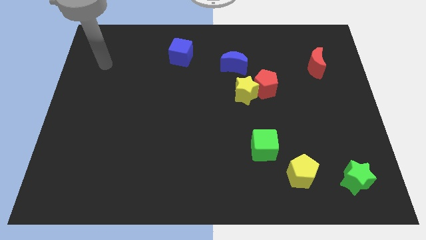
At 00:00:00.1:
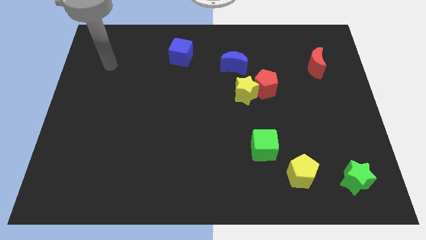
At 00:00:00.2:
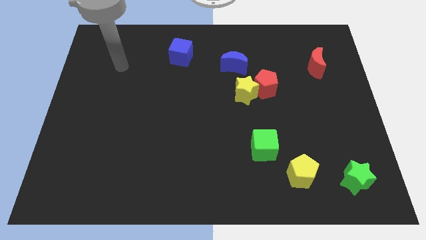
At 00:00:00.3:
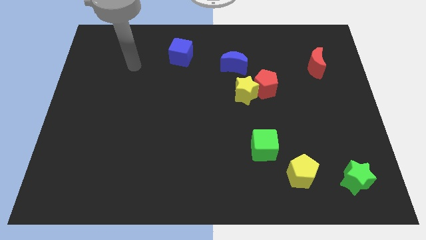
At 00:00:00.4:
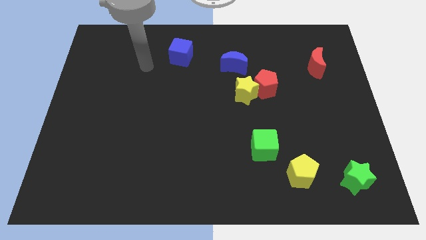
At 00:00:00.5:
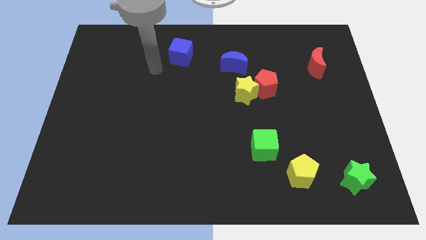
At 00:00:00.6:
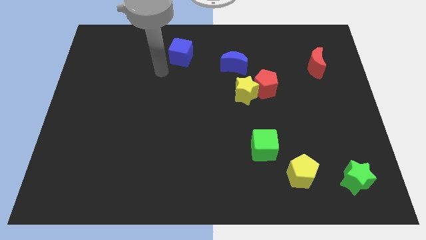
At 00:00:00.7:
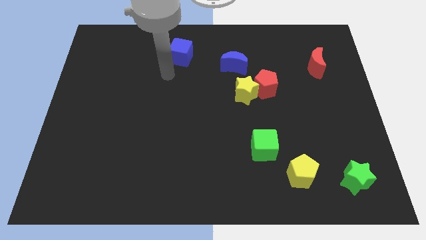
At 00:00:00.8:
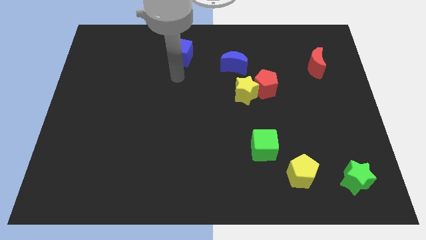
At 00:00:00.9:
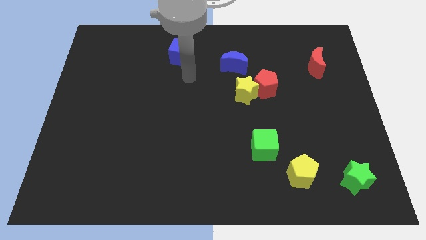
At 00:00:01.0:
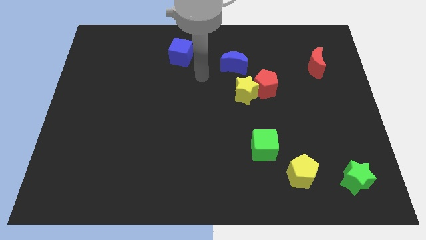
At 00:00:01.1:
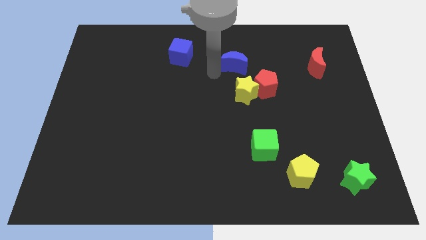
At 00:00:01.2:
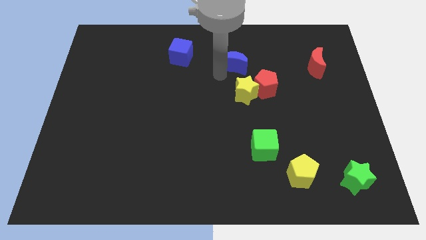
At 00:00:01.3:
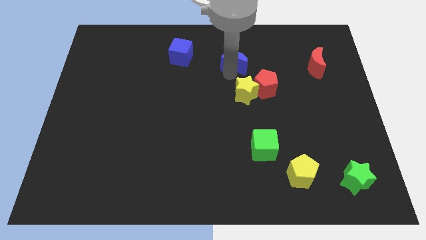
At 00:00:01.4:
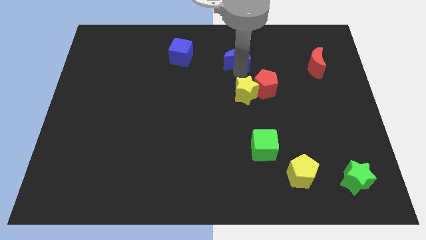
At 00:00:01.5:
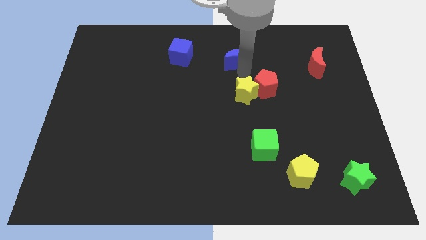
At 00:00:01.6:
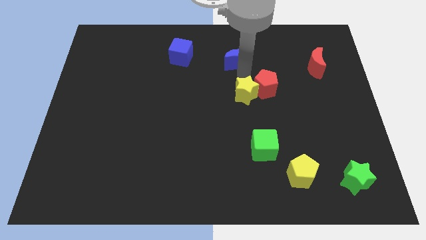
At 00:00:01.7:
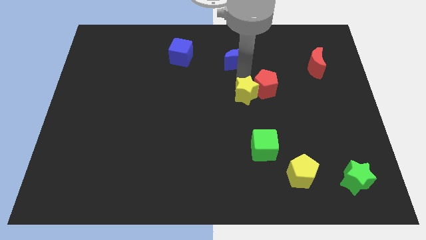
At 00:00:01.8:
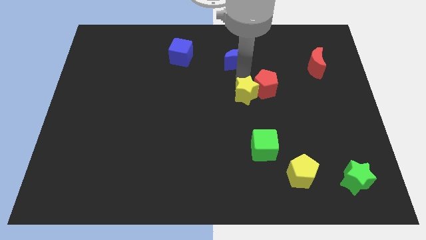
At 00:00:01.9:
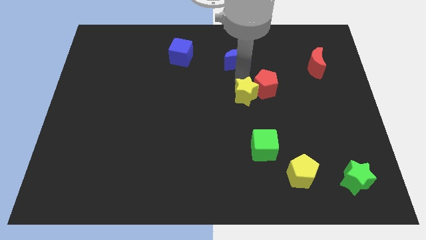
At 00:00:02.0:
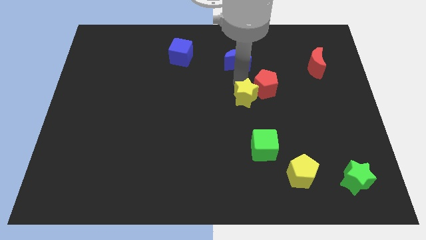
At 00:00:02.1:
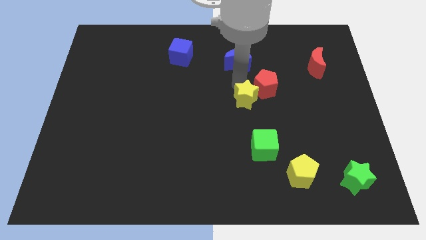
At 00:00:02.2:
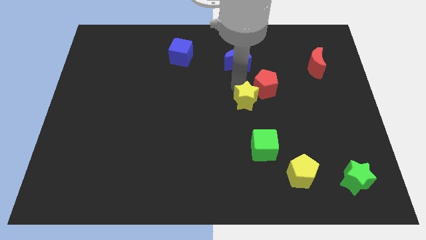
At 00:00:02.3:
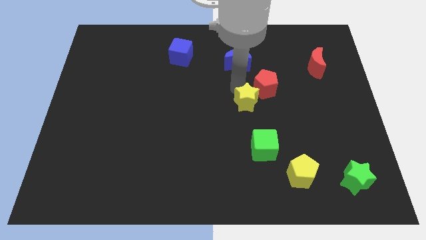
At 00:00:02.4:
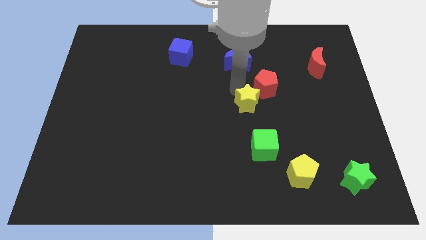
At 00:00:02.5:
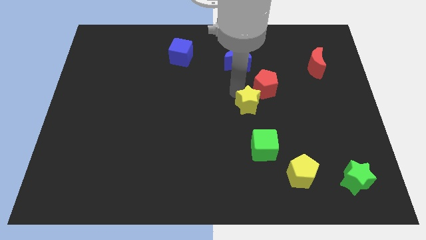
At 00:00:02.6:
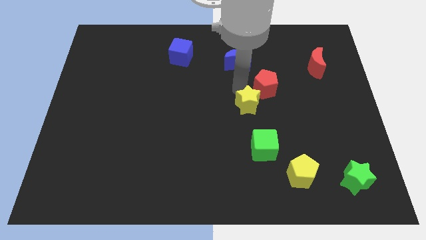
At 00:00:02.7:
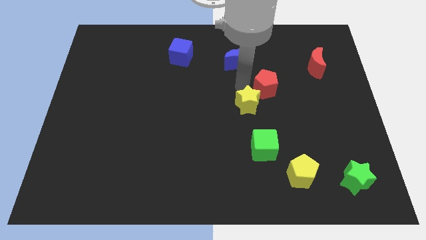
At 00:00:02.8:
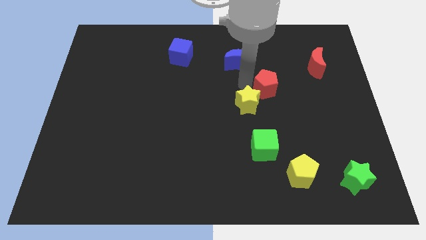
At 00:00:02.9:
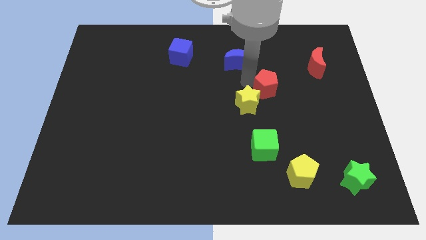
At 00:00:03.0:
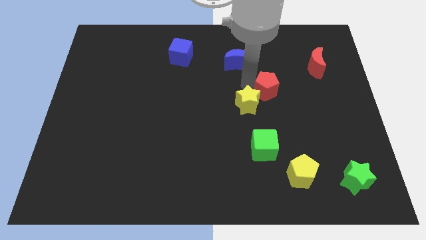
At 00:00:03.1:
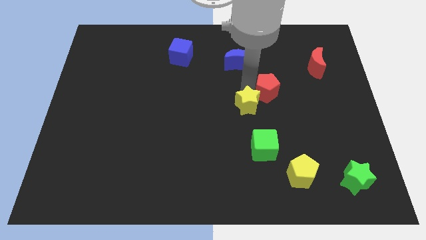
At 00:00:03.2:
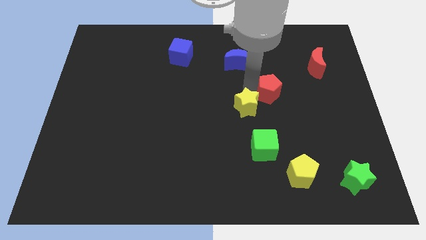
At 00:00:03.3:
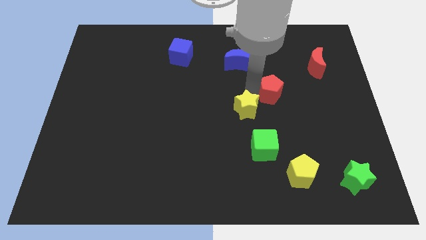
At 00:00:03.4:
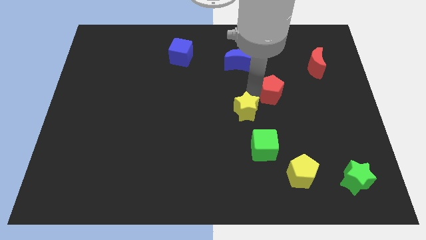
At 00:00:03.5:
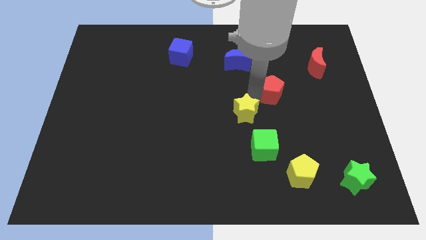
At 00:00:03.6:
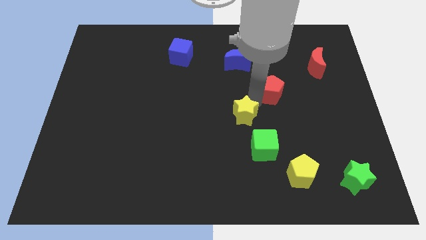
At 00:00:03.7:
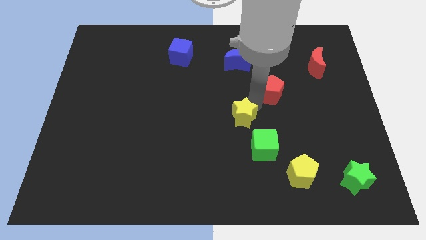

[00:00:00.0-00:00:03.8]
push the yellow star a little down

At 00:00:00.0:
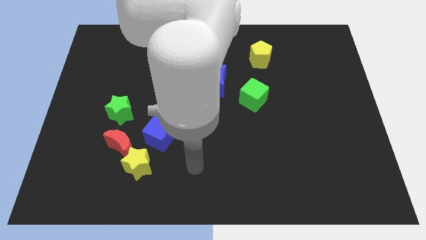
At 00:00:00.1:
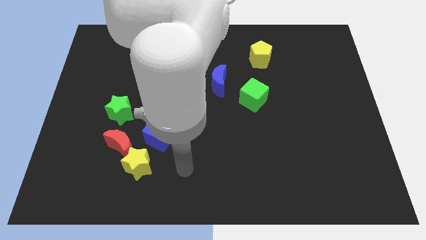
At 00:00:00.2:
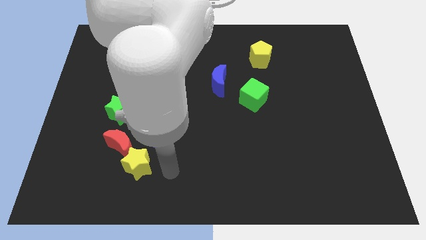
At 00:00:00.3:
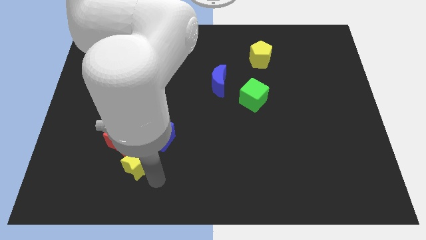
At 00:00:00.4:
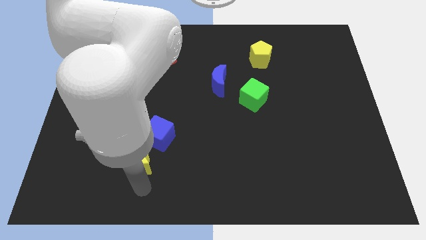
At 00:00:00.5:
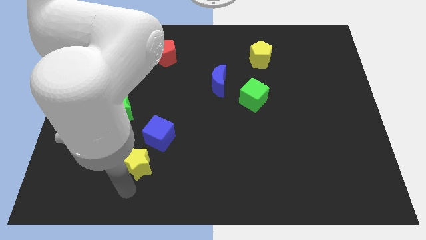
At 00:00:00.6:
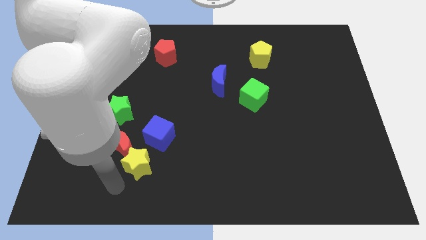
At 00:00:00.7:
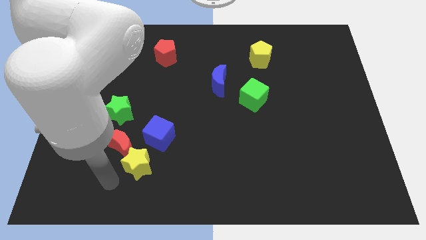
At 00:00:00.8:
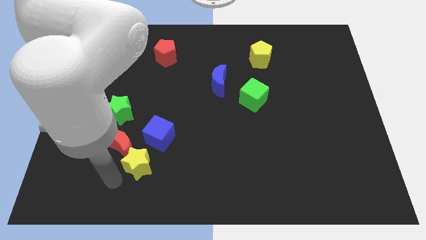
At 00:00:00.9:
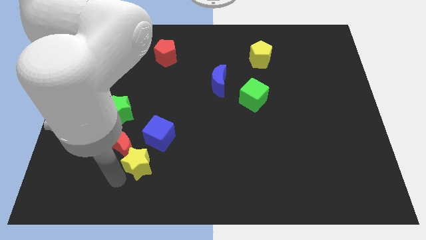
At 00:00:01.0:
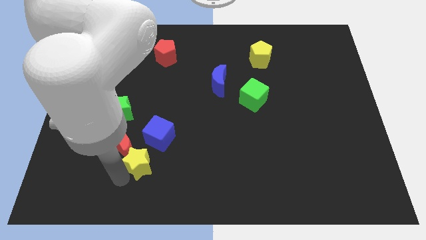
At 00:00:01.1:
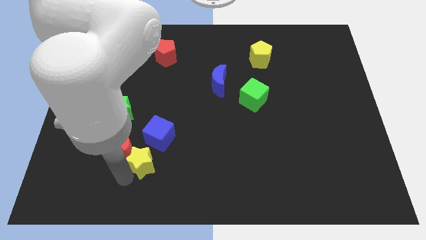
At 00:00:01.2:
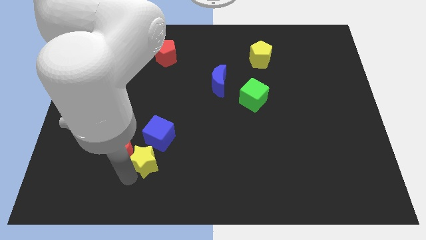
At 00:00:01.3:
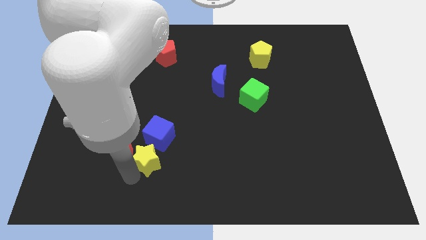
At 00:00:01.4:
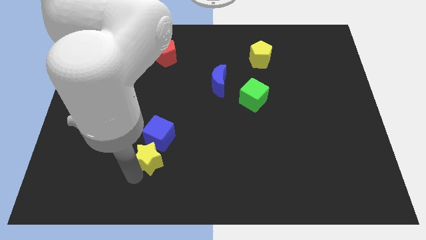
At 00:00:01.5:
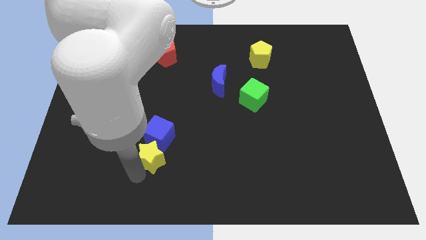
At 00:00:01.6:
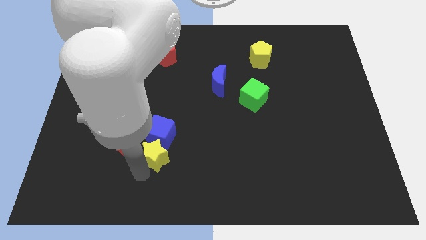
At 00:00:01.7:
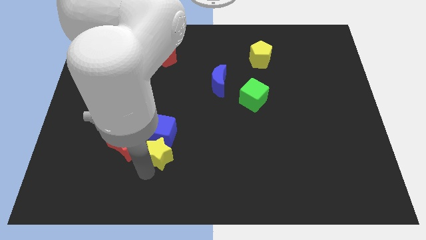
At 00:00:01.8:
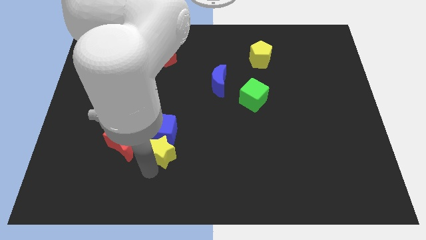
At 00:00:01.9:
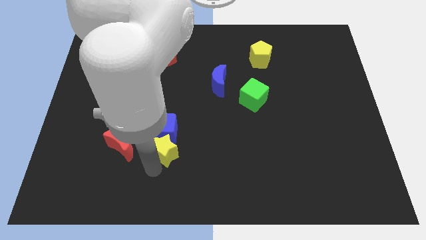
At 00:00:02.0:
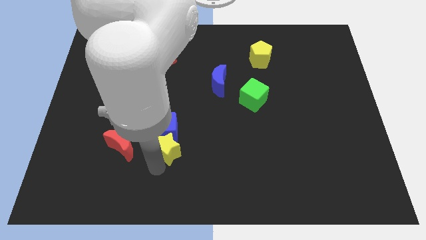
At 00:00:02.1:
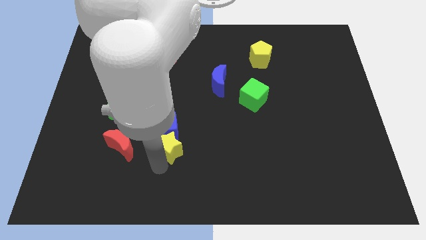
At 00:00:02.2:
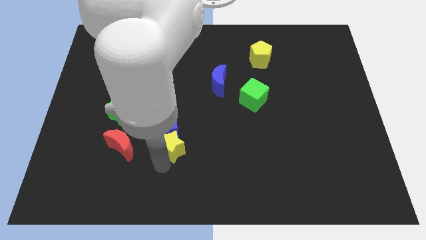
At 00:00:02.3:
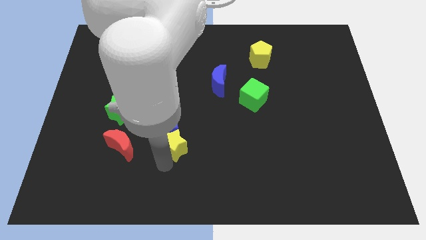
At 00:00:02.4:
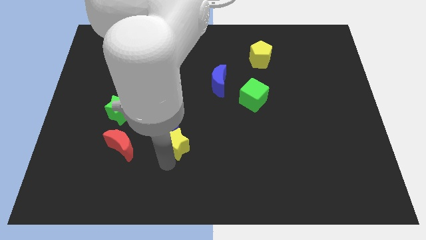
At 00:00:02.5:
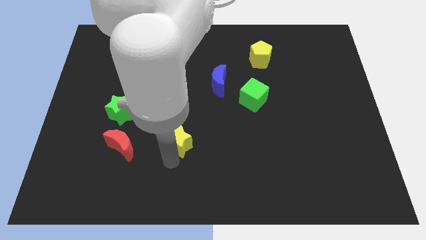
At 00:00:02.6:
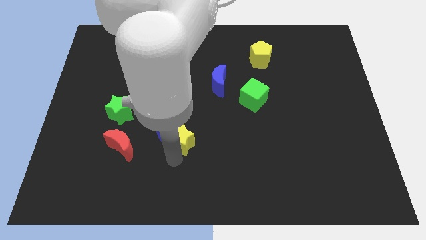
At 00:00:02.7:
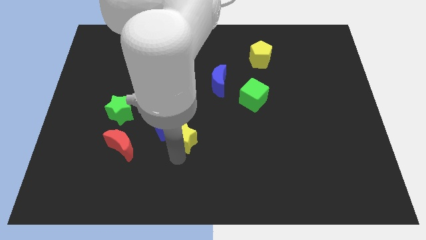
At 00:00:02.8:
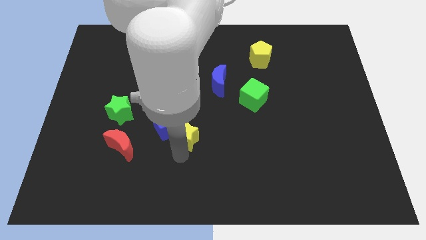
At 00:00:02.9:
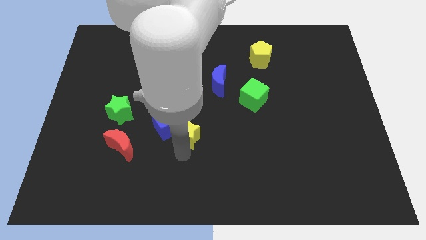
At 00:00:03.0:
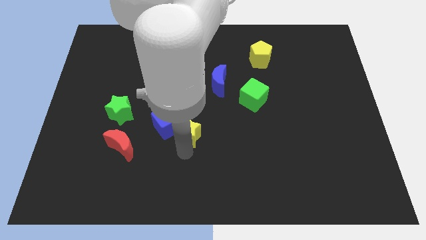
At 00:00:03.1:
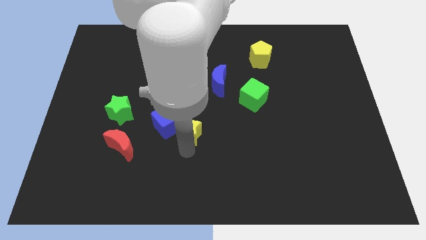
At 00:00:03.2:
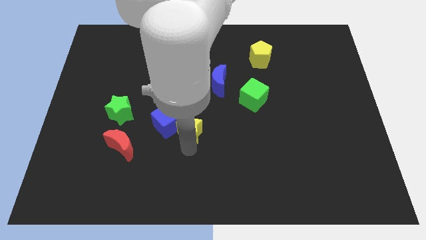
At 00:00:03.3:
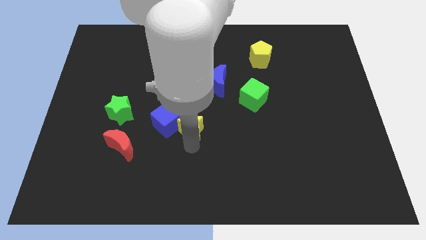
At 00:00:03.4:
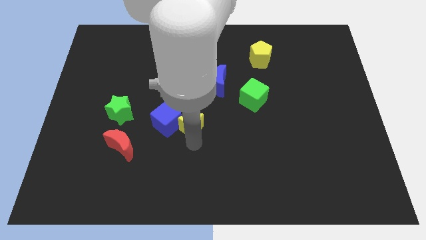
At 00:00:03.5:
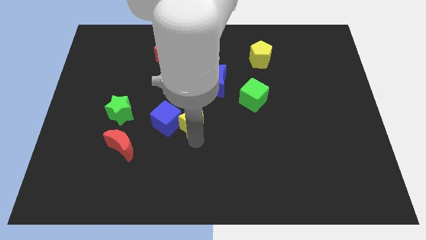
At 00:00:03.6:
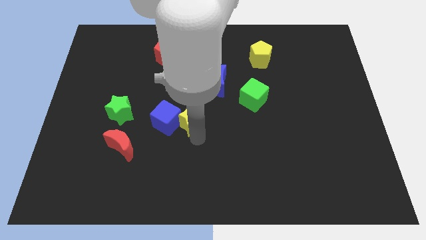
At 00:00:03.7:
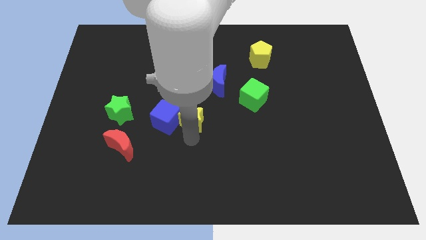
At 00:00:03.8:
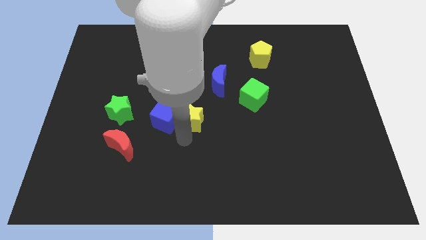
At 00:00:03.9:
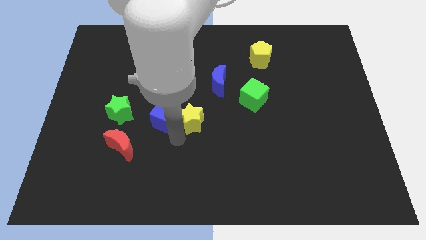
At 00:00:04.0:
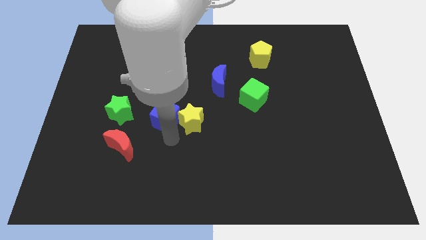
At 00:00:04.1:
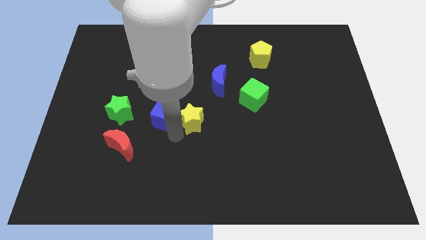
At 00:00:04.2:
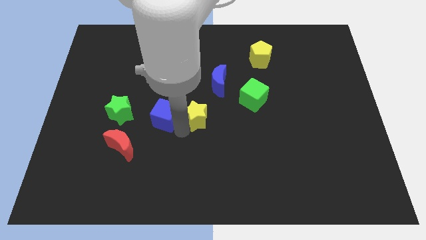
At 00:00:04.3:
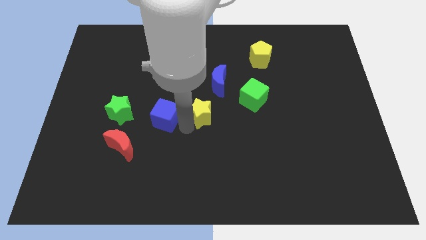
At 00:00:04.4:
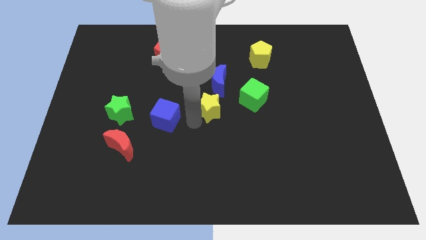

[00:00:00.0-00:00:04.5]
push the yellow star upwards and to the right
